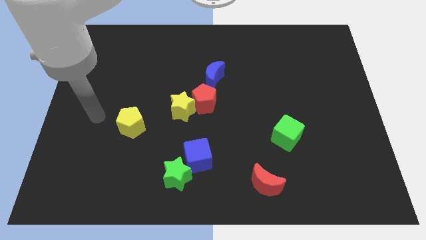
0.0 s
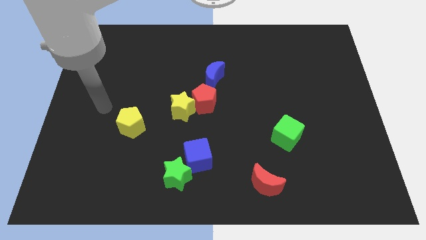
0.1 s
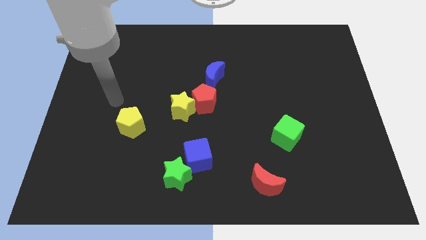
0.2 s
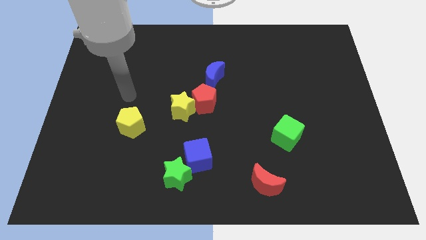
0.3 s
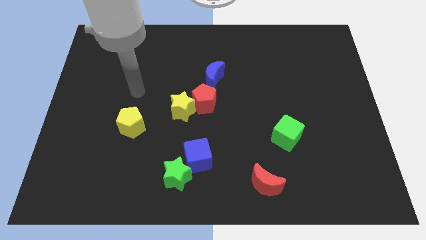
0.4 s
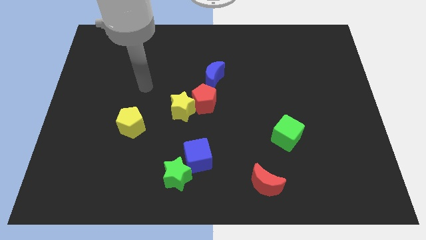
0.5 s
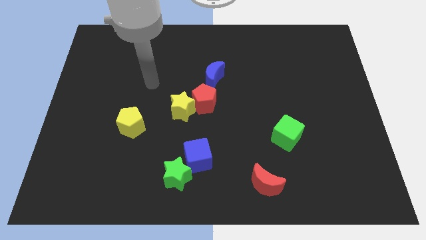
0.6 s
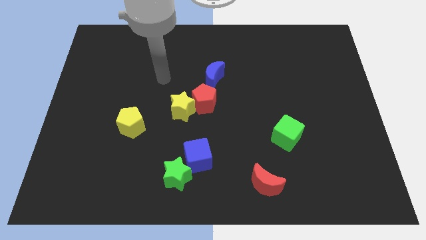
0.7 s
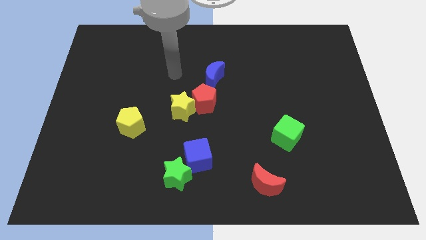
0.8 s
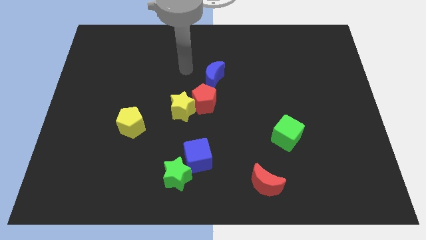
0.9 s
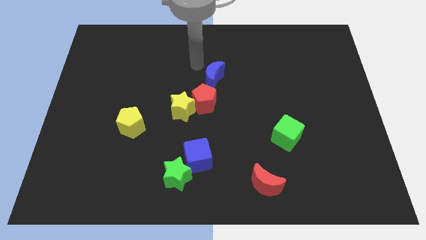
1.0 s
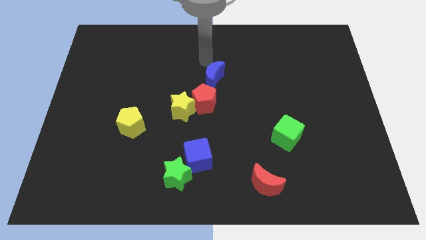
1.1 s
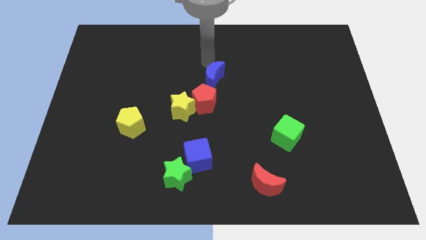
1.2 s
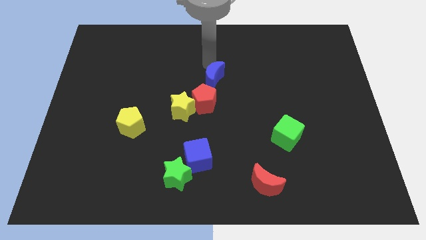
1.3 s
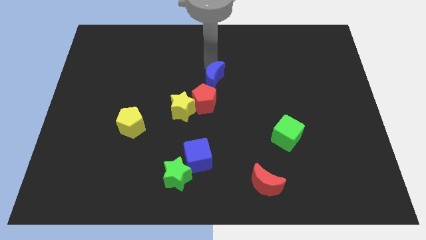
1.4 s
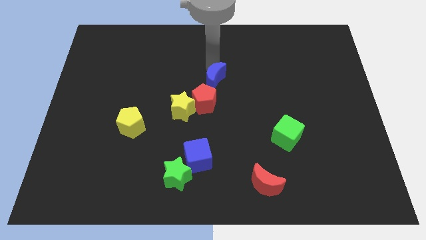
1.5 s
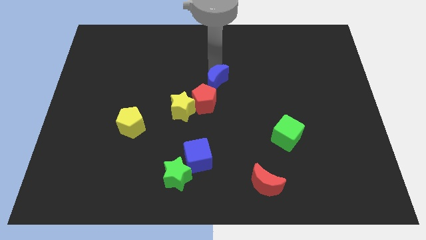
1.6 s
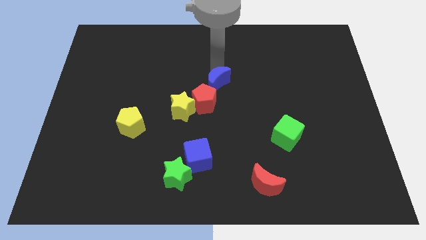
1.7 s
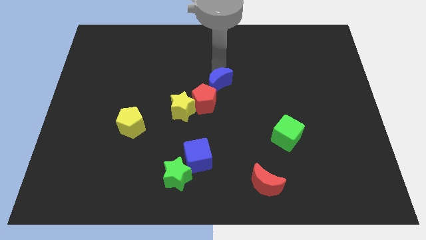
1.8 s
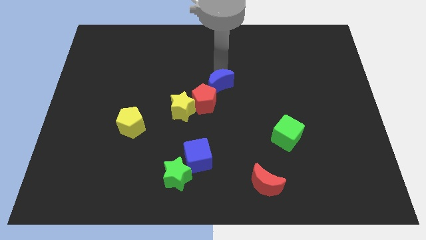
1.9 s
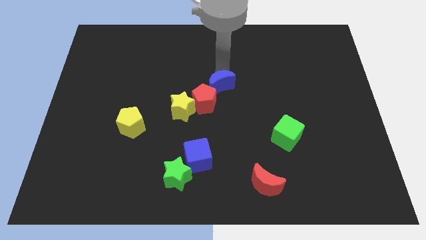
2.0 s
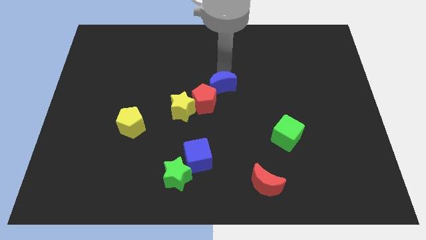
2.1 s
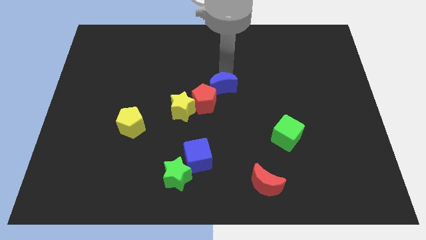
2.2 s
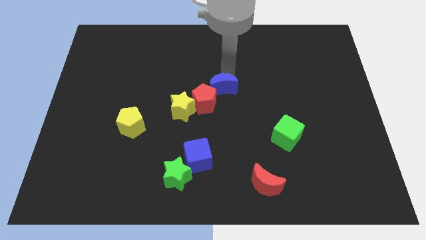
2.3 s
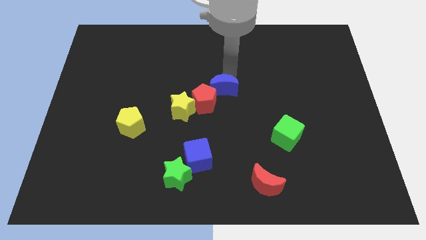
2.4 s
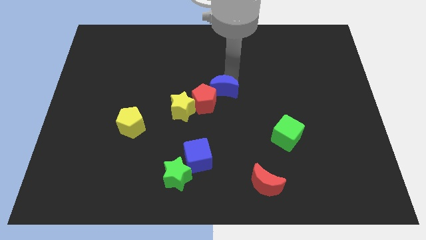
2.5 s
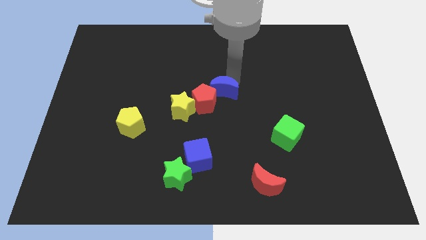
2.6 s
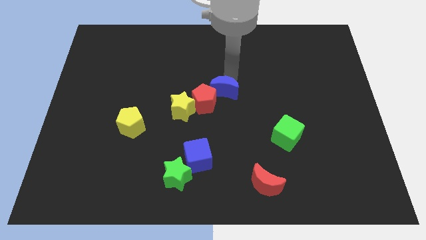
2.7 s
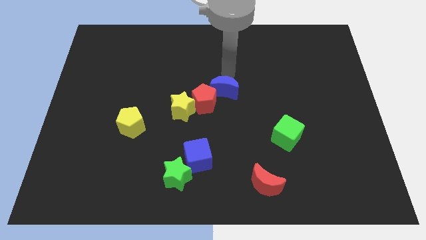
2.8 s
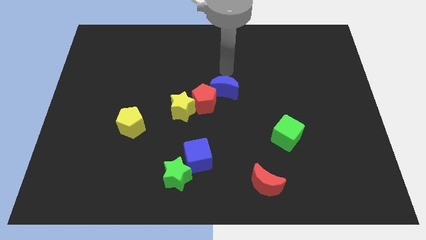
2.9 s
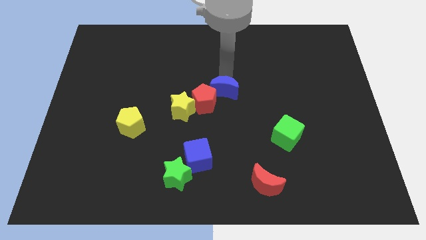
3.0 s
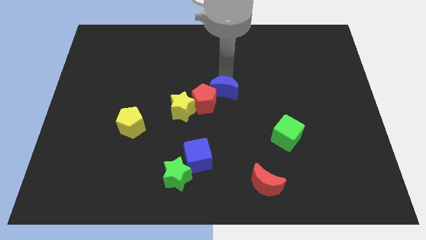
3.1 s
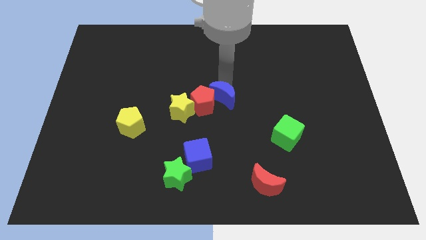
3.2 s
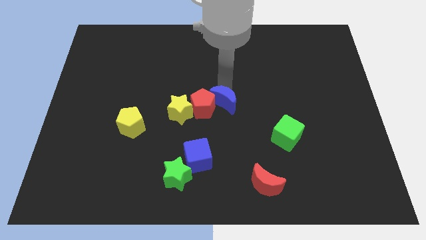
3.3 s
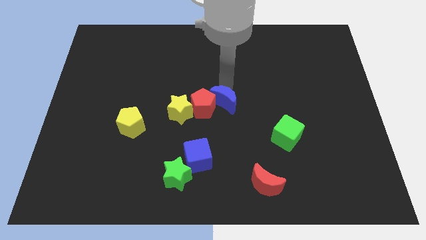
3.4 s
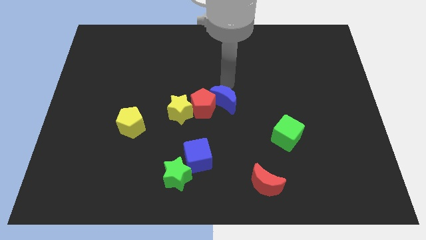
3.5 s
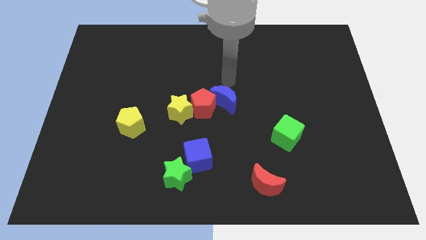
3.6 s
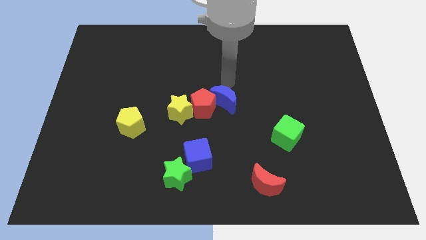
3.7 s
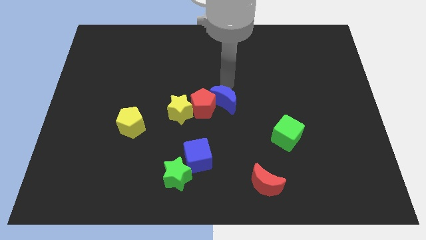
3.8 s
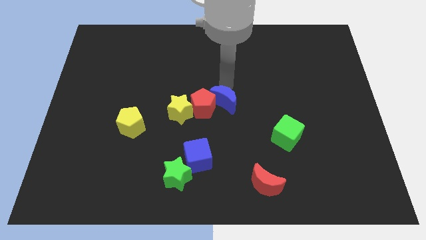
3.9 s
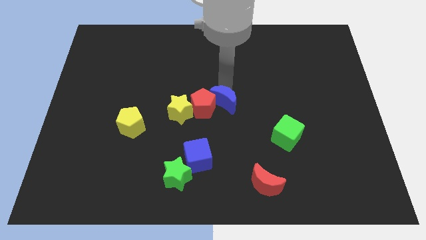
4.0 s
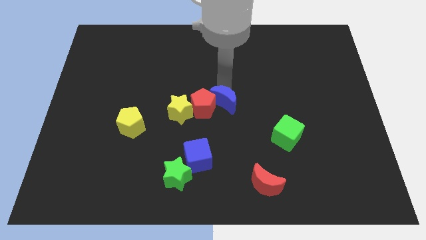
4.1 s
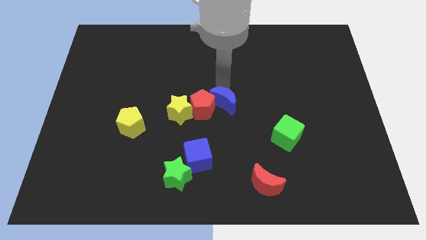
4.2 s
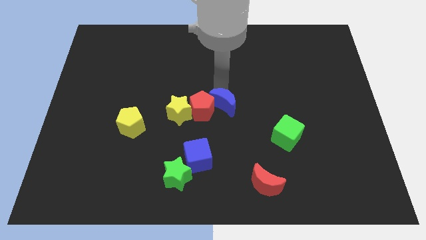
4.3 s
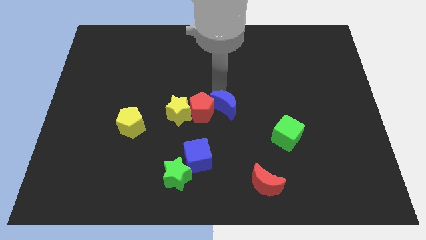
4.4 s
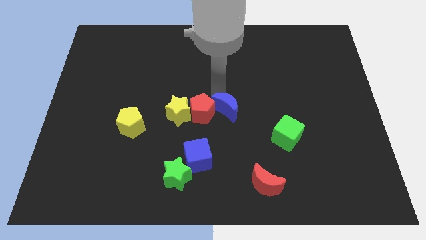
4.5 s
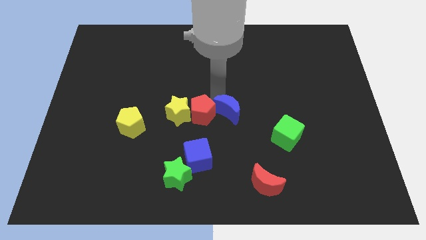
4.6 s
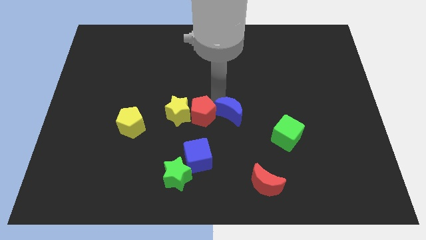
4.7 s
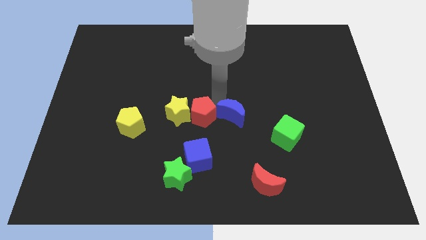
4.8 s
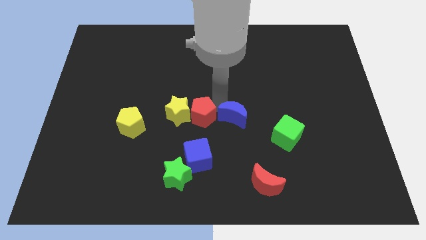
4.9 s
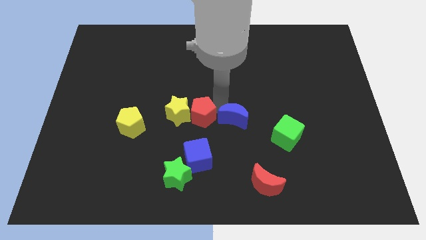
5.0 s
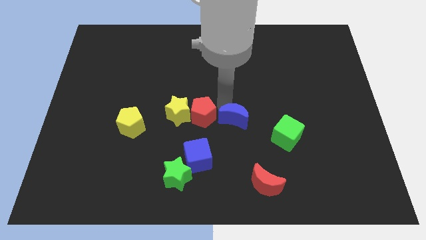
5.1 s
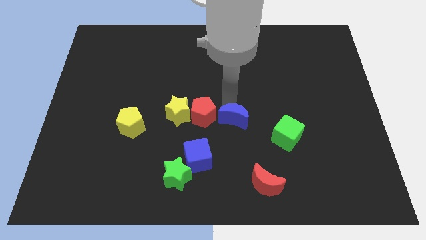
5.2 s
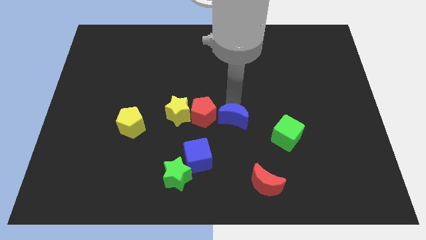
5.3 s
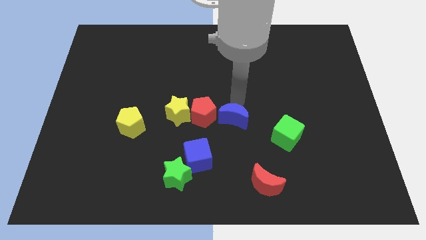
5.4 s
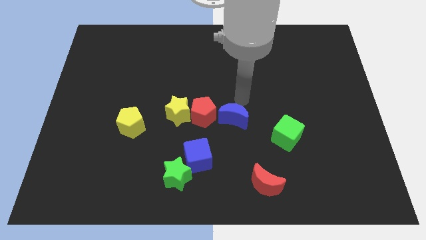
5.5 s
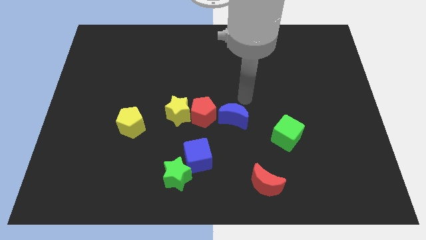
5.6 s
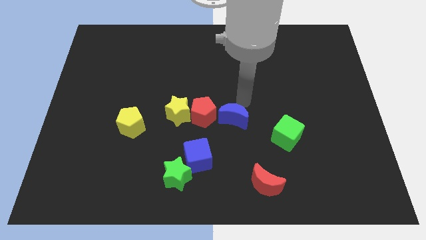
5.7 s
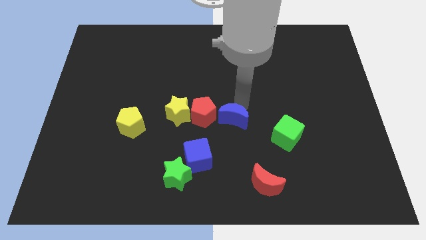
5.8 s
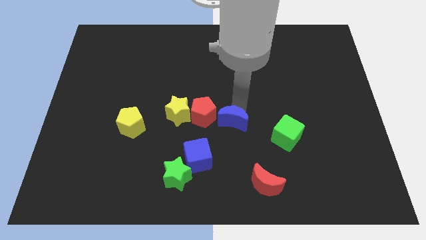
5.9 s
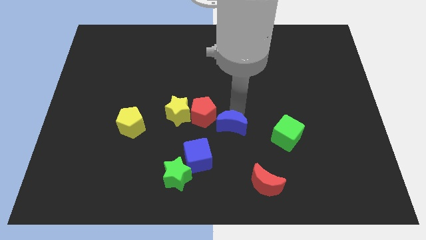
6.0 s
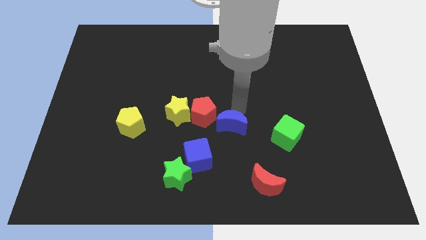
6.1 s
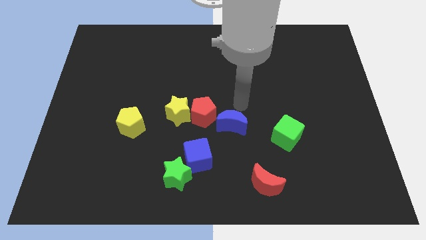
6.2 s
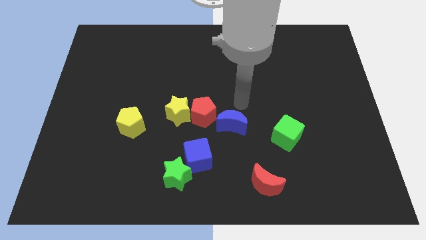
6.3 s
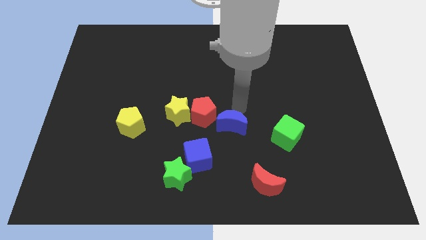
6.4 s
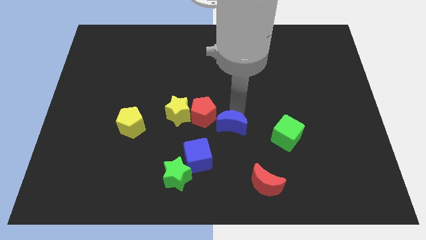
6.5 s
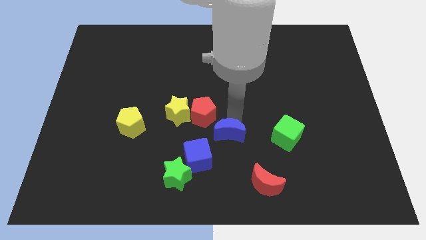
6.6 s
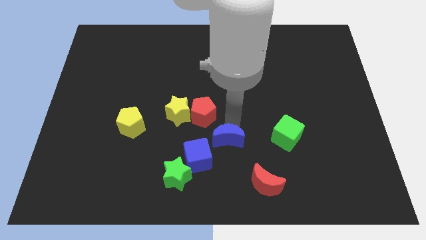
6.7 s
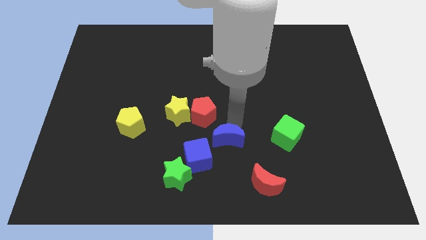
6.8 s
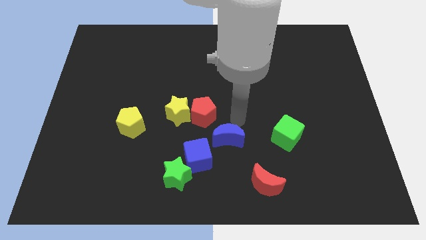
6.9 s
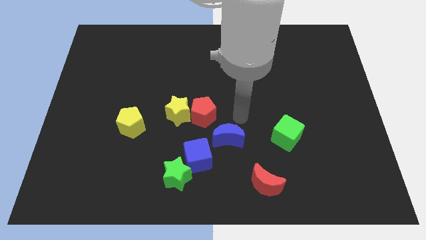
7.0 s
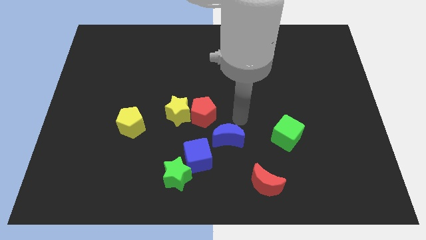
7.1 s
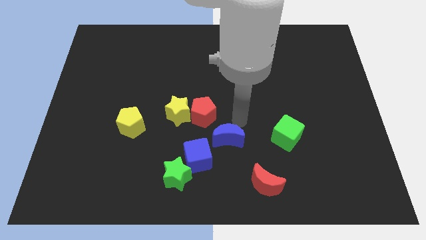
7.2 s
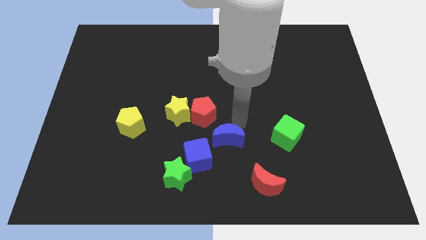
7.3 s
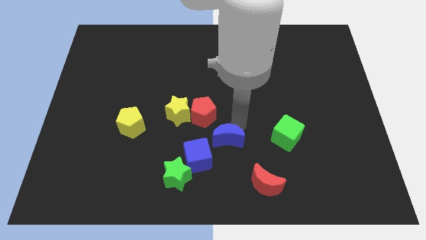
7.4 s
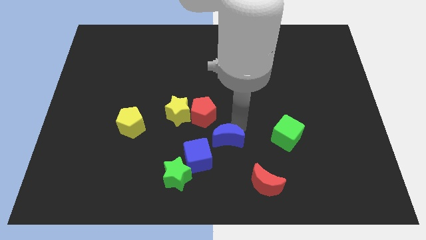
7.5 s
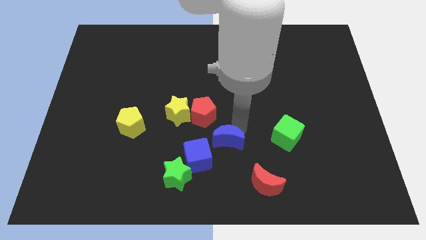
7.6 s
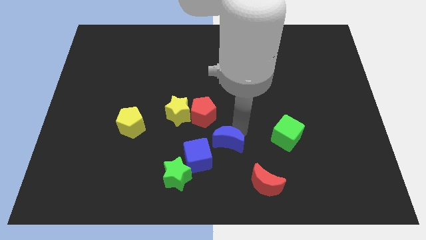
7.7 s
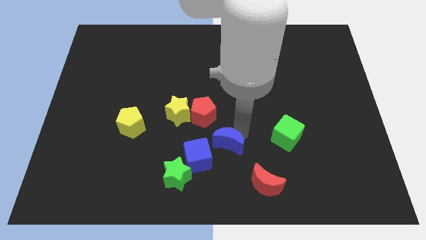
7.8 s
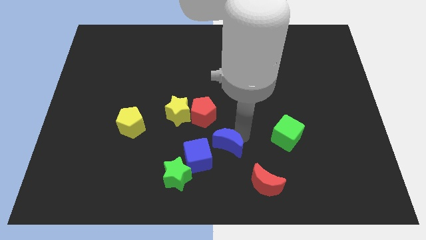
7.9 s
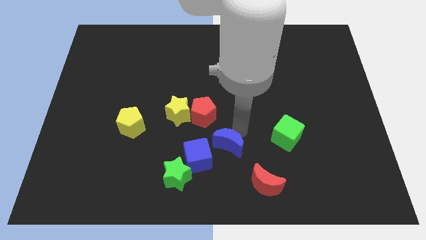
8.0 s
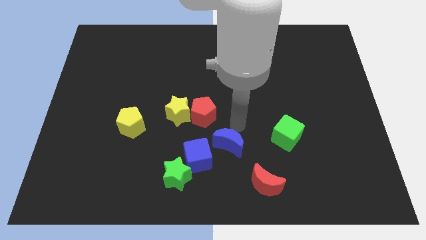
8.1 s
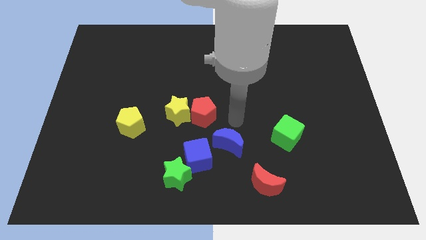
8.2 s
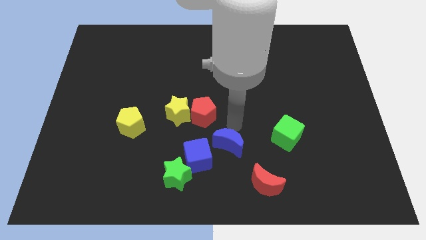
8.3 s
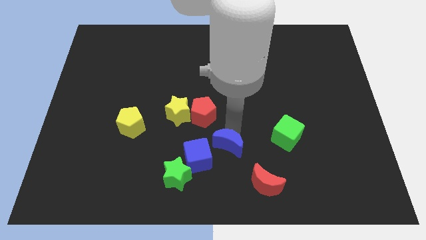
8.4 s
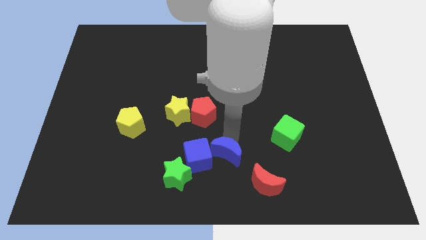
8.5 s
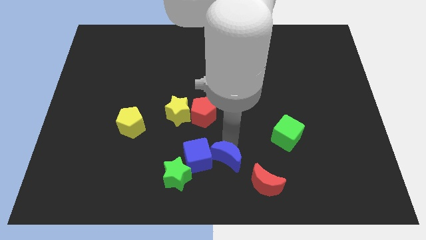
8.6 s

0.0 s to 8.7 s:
move the blue moon to the bottom side
